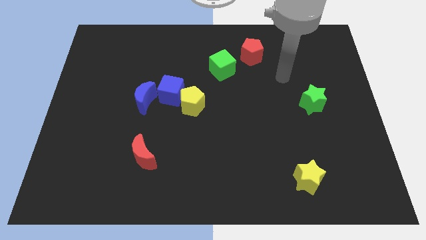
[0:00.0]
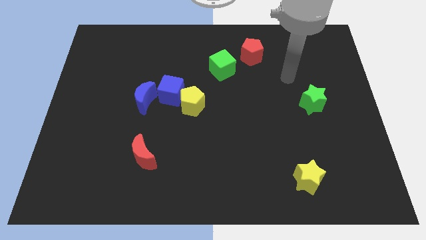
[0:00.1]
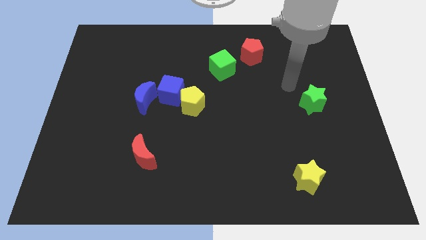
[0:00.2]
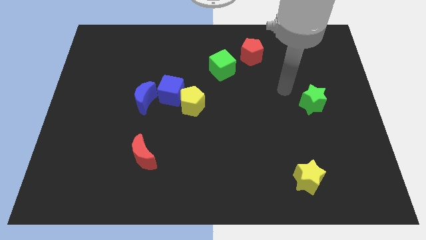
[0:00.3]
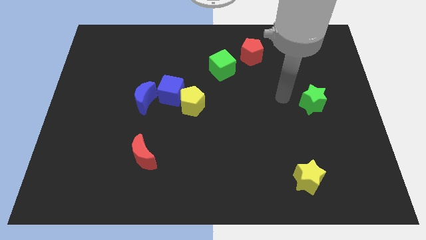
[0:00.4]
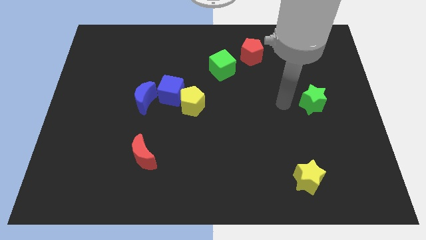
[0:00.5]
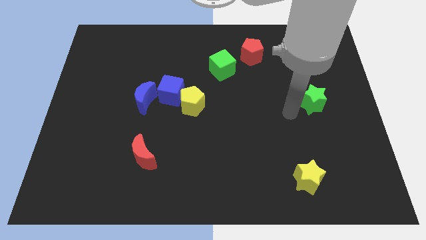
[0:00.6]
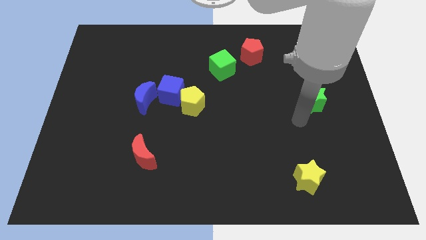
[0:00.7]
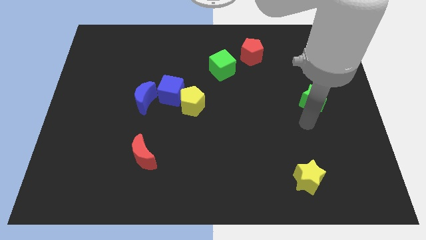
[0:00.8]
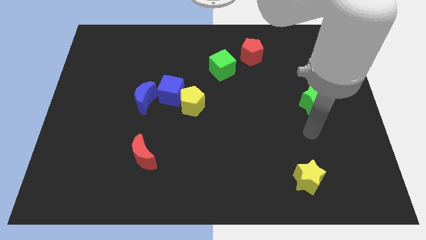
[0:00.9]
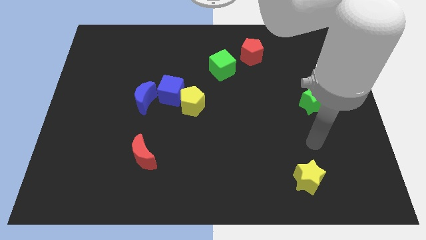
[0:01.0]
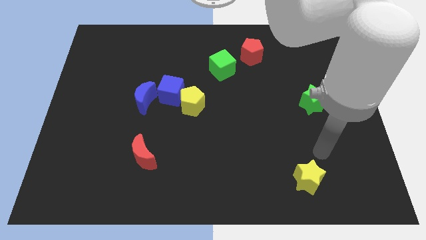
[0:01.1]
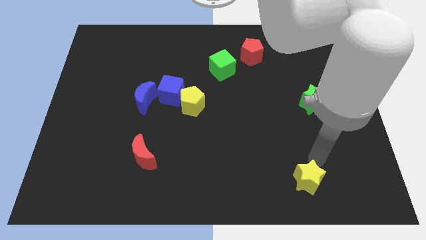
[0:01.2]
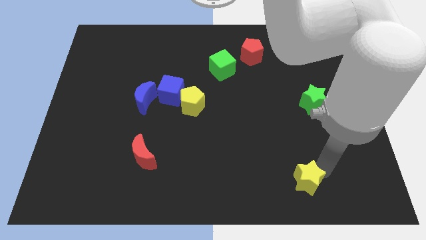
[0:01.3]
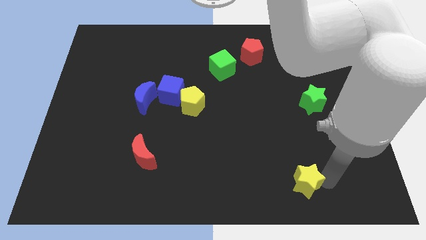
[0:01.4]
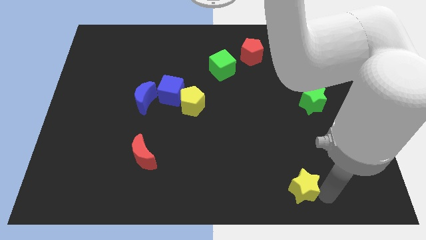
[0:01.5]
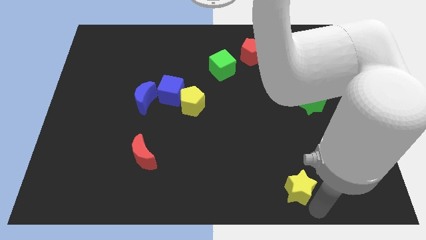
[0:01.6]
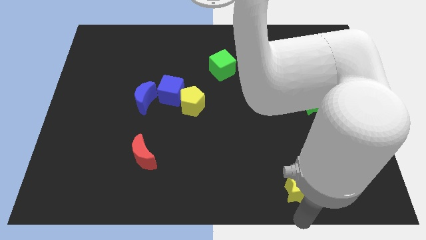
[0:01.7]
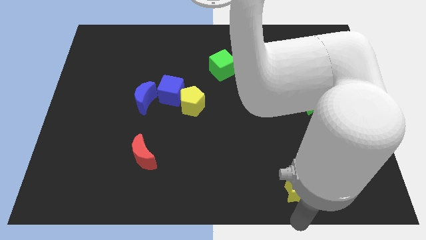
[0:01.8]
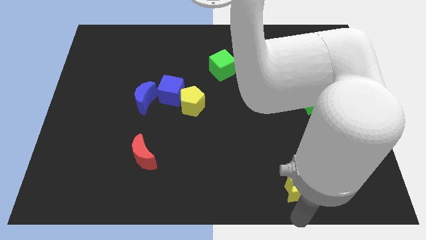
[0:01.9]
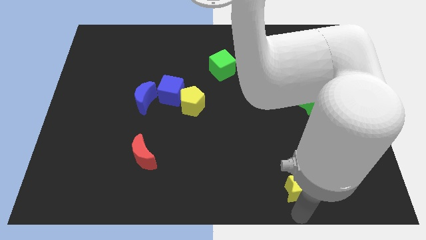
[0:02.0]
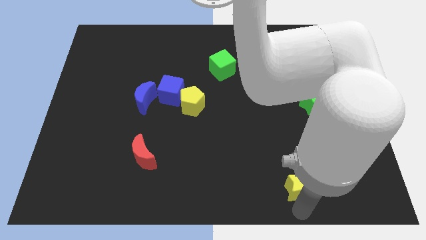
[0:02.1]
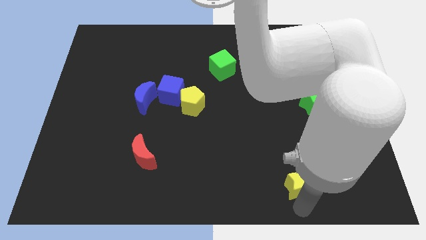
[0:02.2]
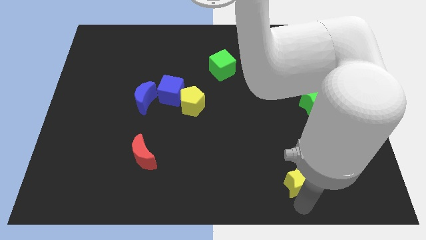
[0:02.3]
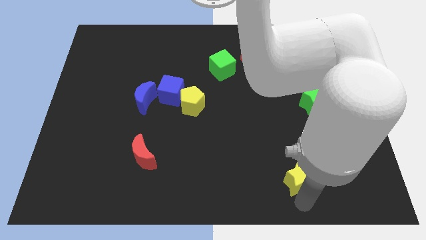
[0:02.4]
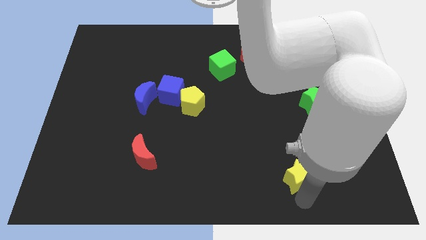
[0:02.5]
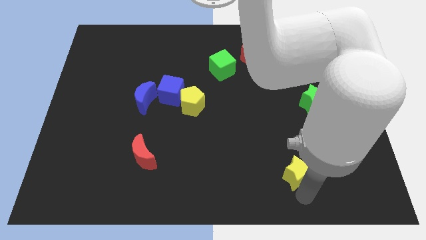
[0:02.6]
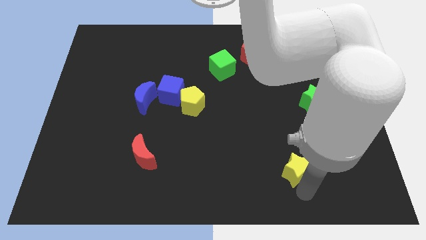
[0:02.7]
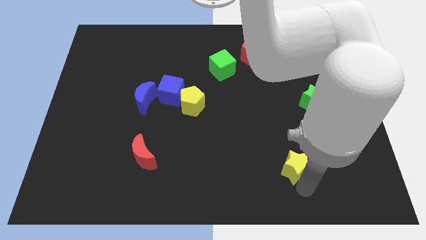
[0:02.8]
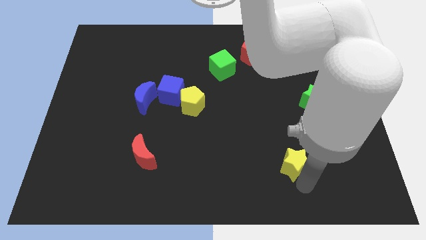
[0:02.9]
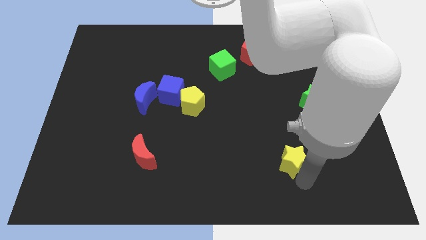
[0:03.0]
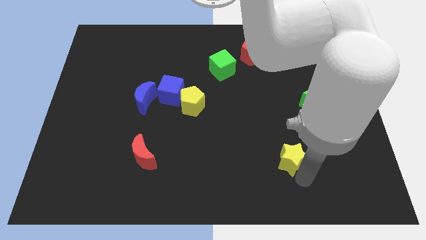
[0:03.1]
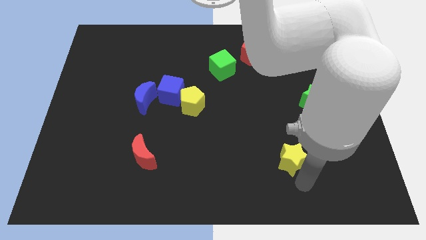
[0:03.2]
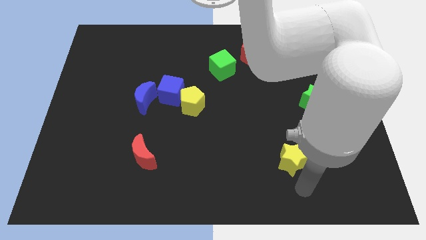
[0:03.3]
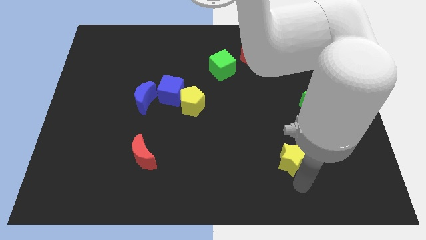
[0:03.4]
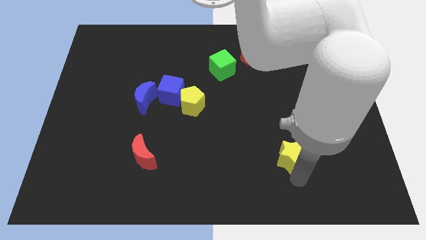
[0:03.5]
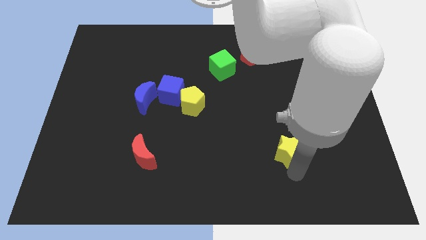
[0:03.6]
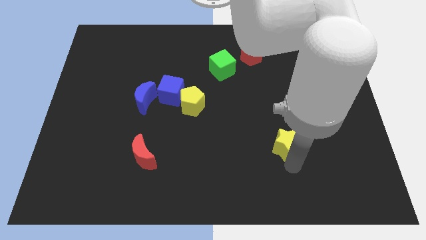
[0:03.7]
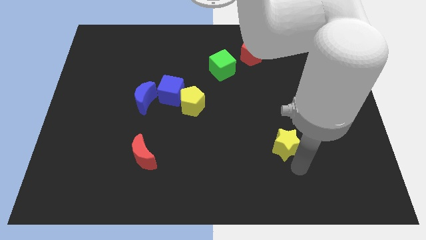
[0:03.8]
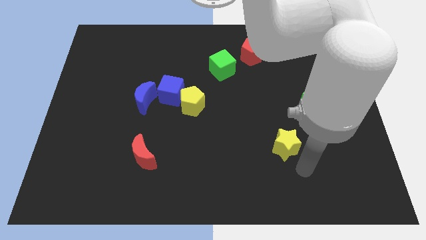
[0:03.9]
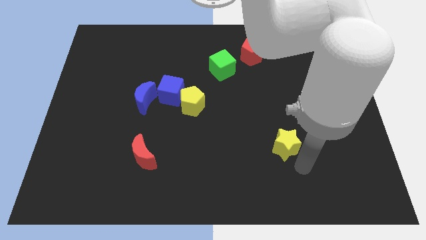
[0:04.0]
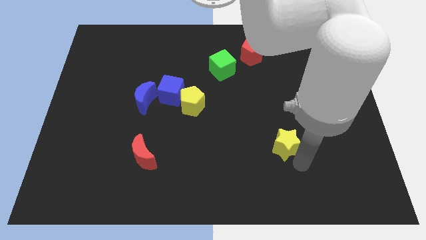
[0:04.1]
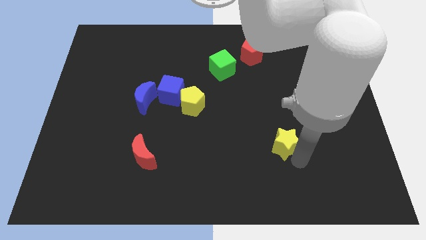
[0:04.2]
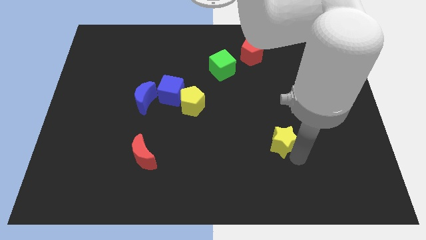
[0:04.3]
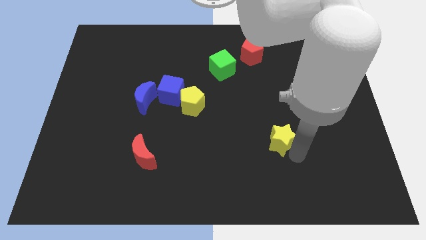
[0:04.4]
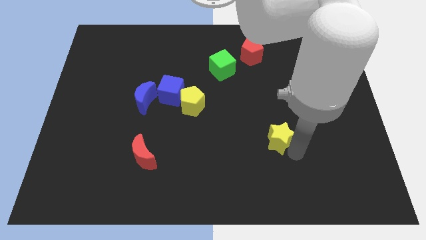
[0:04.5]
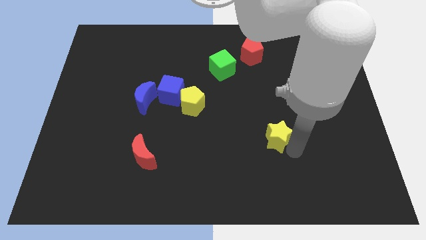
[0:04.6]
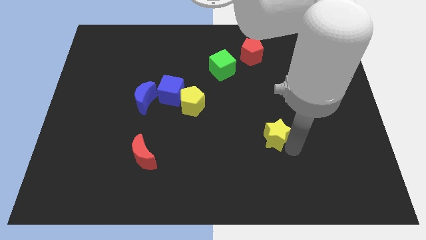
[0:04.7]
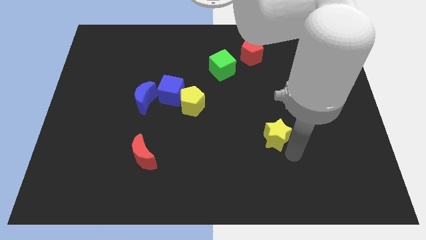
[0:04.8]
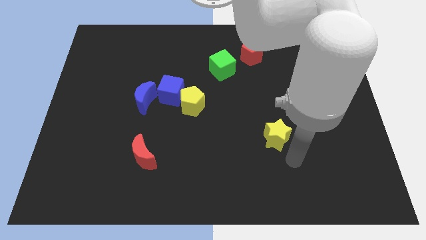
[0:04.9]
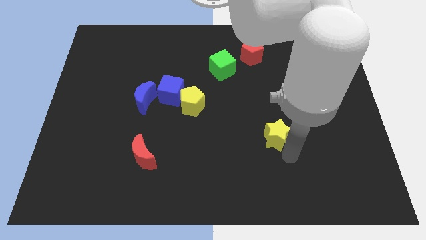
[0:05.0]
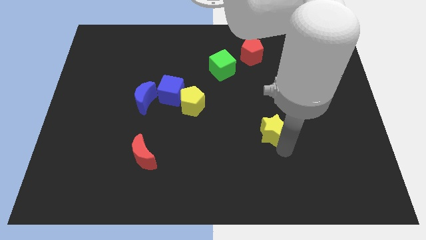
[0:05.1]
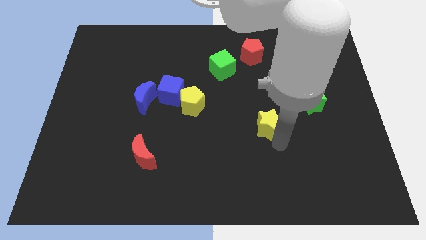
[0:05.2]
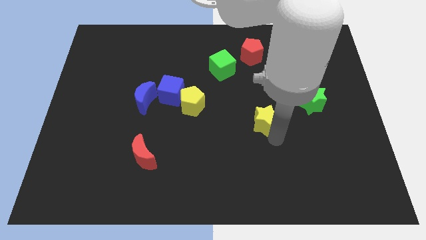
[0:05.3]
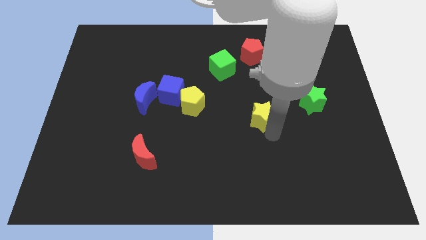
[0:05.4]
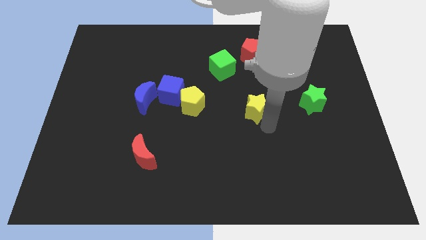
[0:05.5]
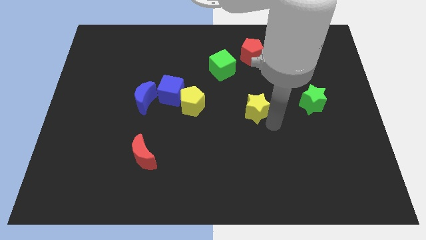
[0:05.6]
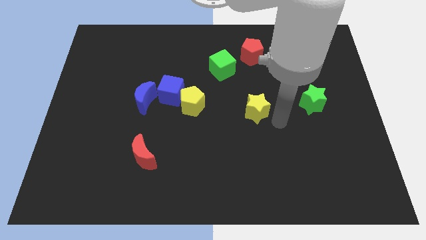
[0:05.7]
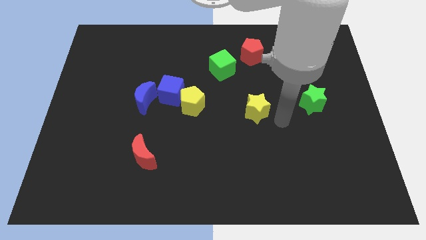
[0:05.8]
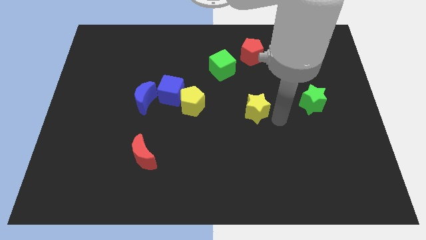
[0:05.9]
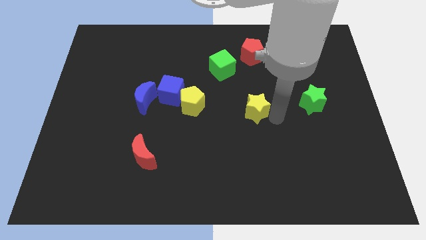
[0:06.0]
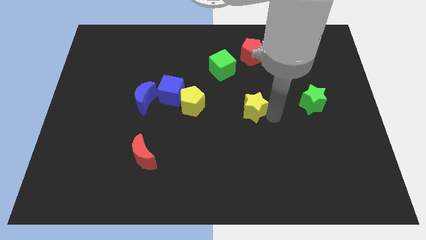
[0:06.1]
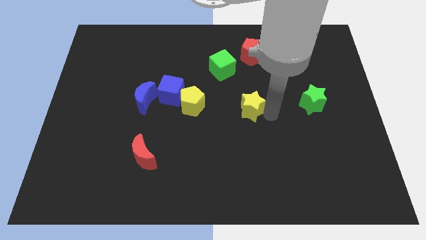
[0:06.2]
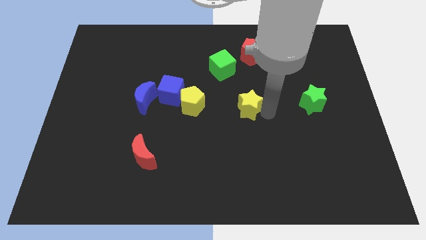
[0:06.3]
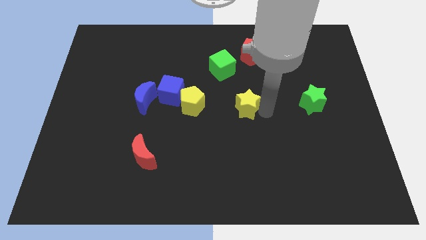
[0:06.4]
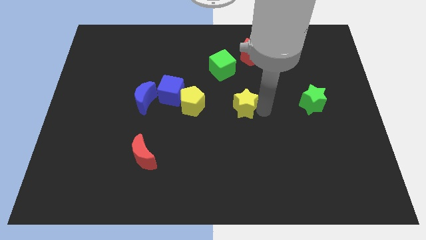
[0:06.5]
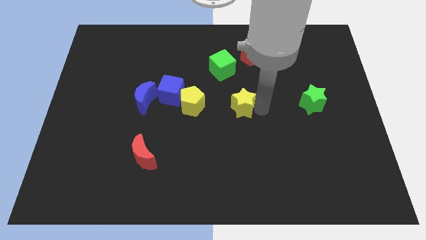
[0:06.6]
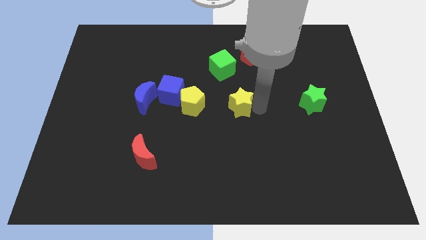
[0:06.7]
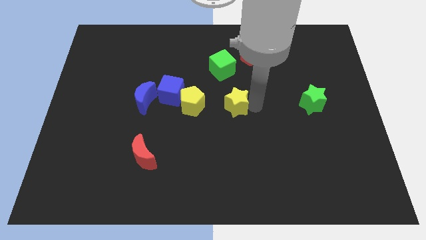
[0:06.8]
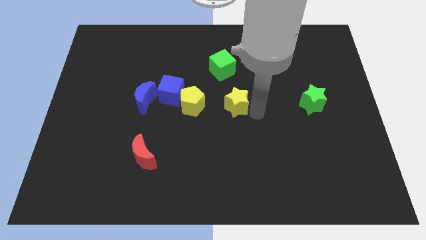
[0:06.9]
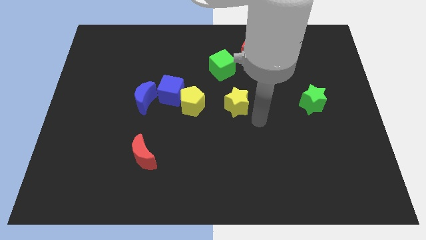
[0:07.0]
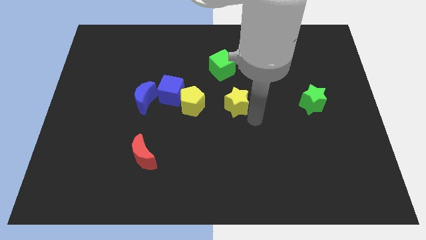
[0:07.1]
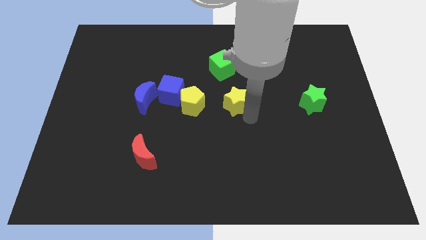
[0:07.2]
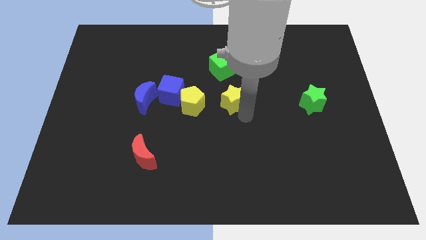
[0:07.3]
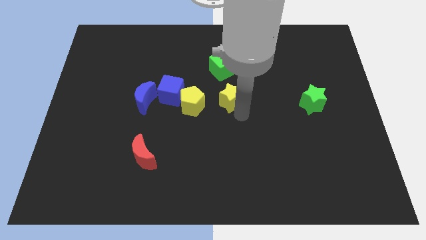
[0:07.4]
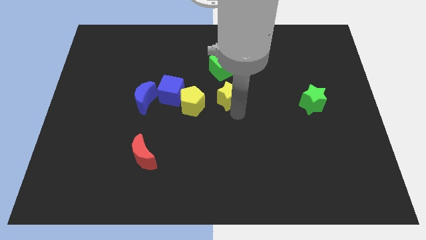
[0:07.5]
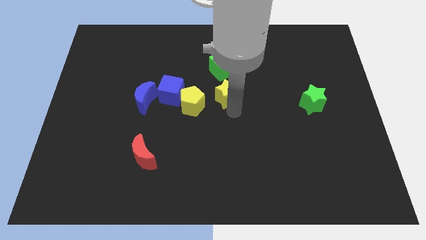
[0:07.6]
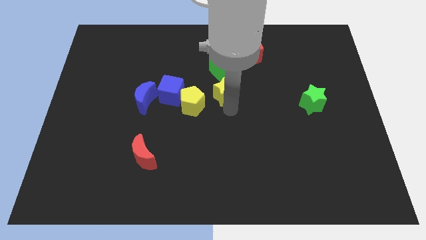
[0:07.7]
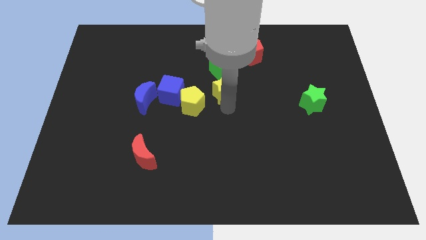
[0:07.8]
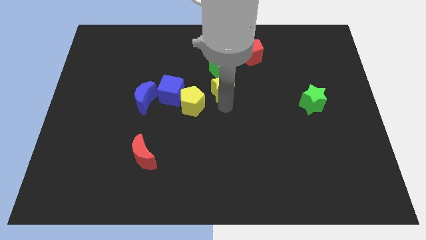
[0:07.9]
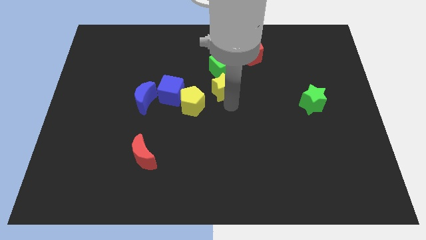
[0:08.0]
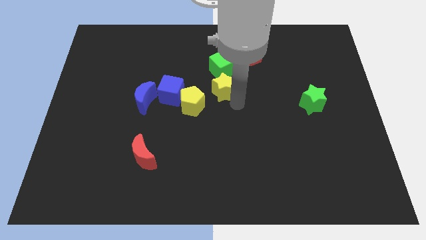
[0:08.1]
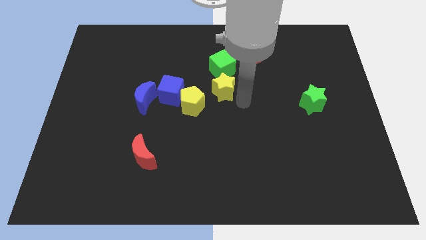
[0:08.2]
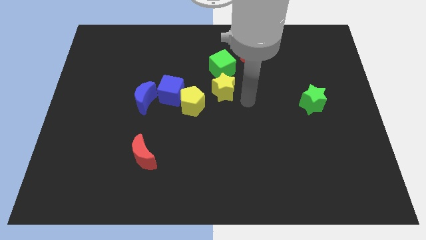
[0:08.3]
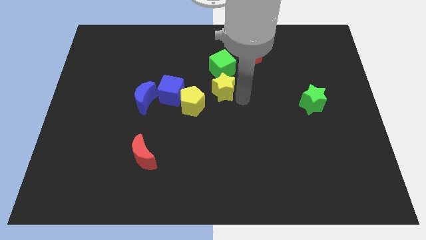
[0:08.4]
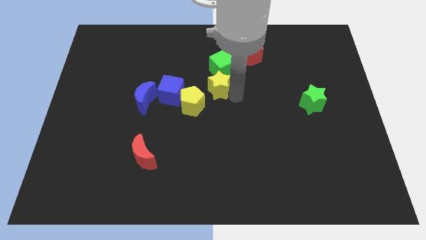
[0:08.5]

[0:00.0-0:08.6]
push the yellow star diagonally down and to the left of the green cube
